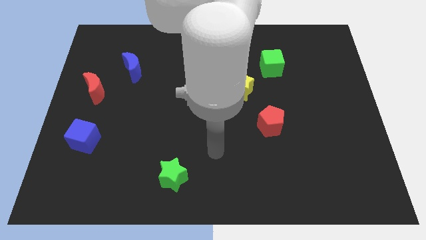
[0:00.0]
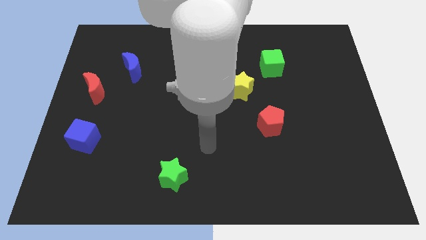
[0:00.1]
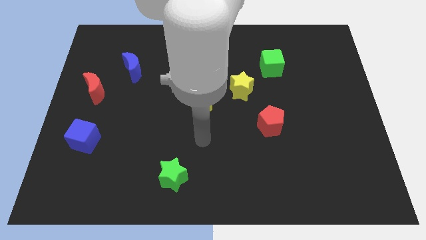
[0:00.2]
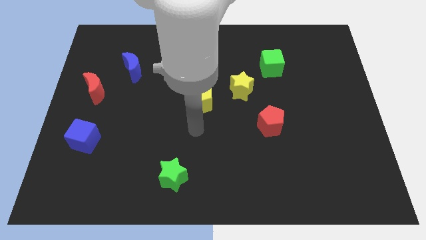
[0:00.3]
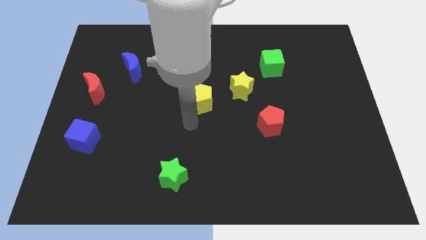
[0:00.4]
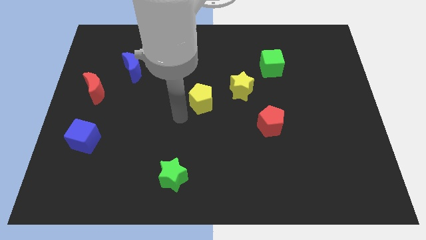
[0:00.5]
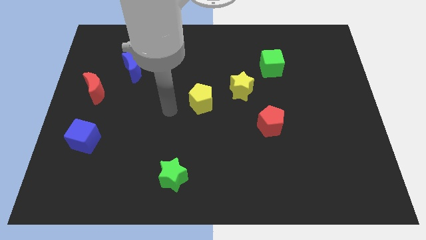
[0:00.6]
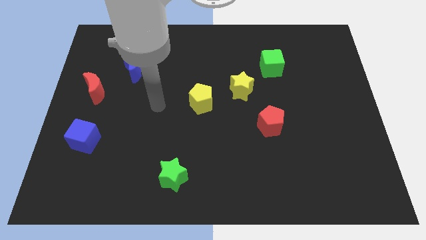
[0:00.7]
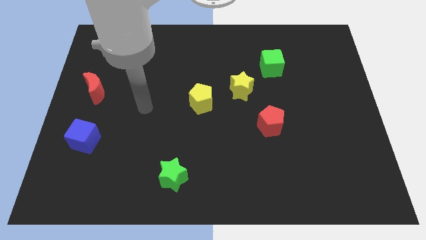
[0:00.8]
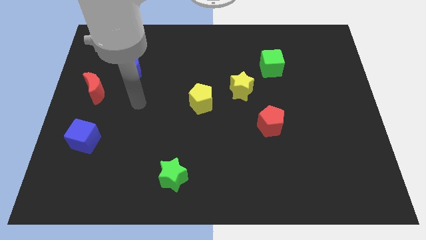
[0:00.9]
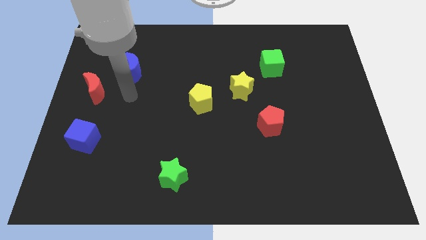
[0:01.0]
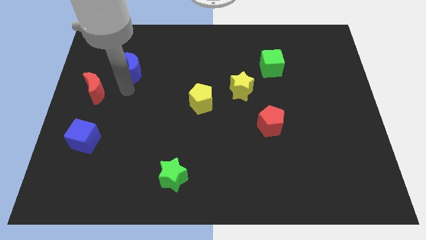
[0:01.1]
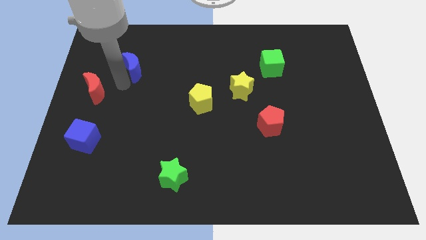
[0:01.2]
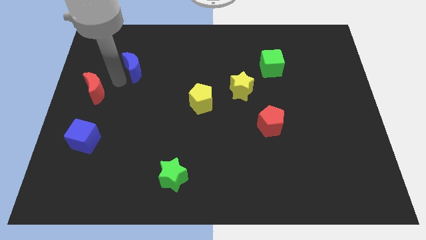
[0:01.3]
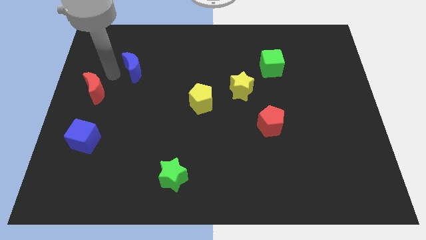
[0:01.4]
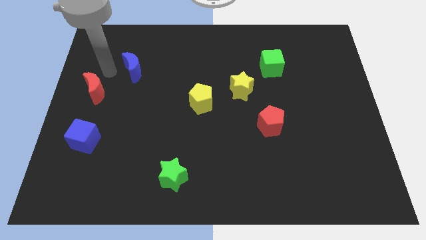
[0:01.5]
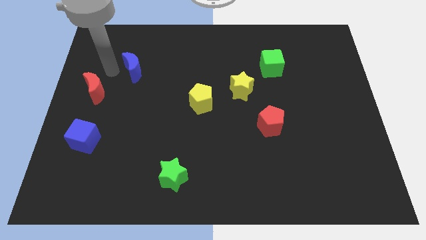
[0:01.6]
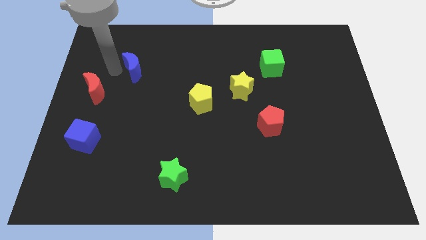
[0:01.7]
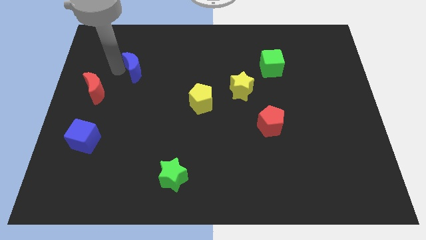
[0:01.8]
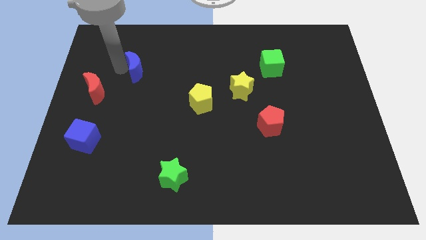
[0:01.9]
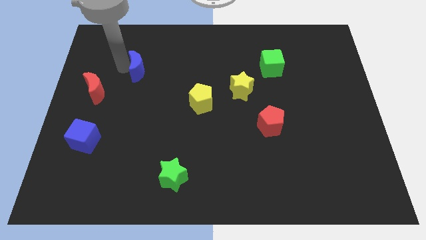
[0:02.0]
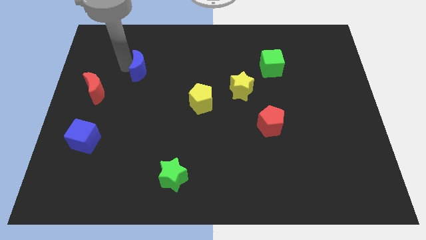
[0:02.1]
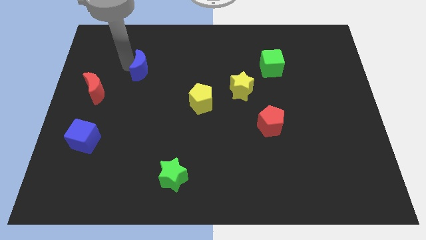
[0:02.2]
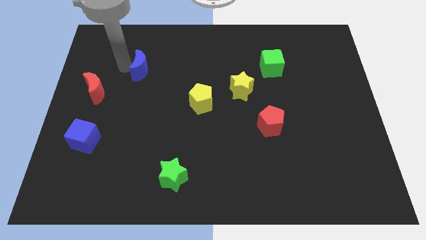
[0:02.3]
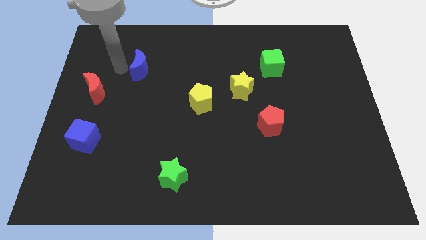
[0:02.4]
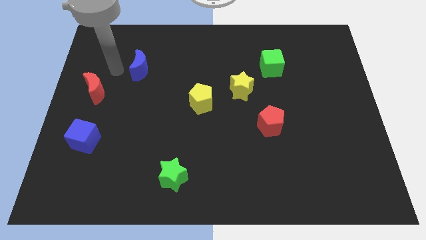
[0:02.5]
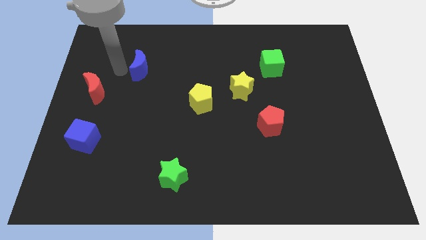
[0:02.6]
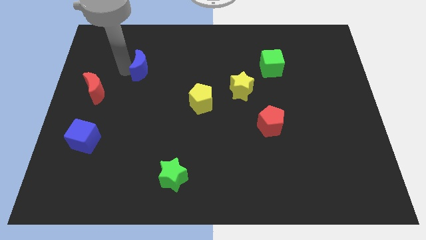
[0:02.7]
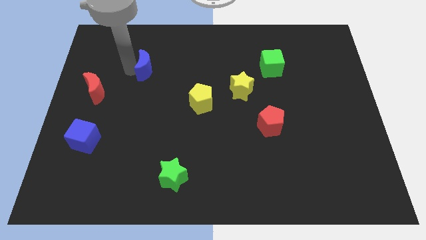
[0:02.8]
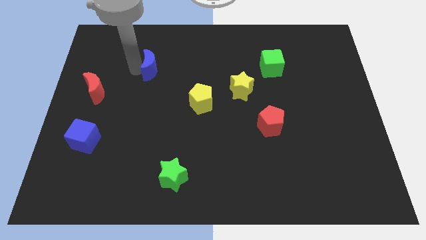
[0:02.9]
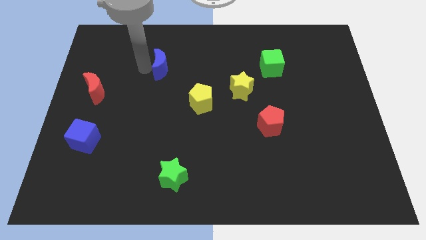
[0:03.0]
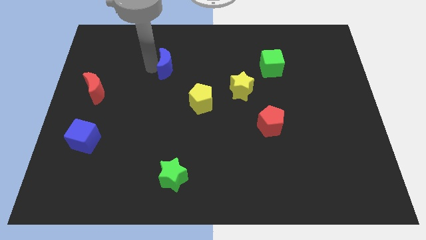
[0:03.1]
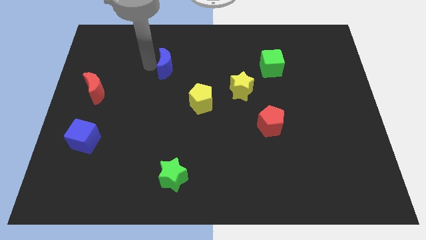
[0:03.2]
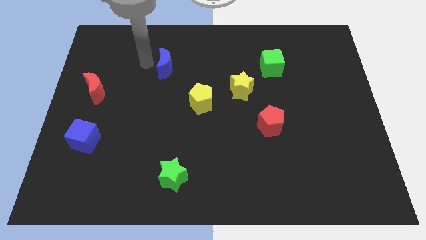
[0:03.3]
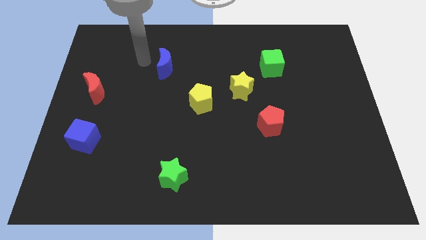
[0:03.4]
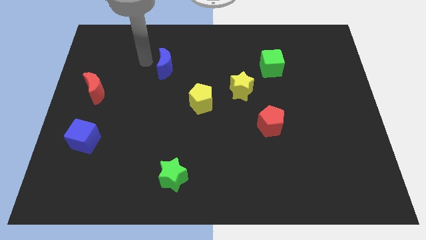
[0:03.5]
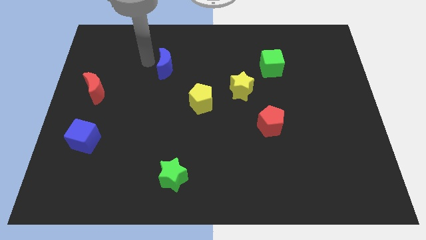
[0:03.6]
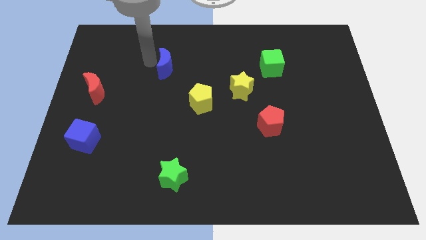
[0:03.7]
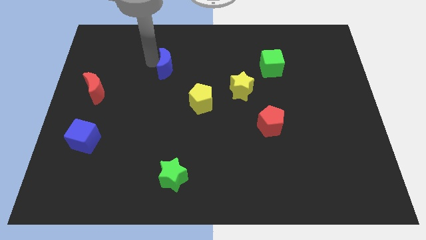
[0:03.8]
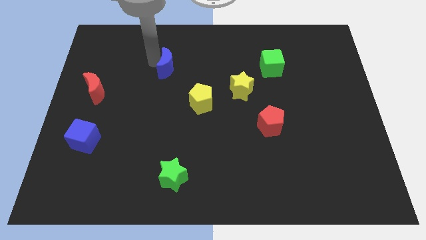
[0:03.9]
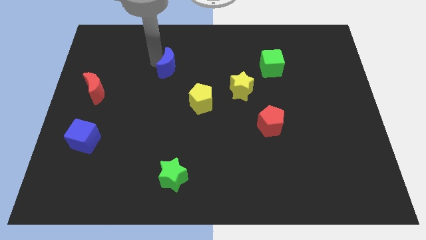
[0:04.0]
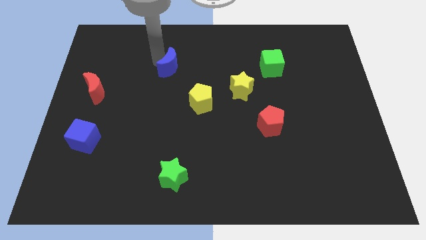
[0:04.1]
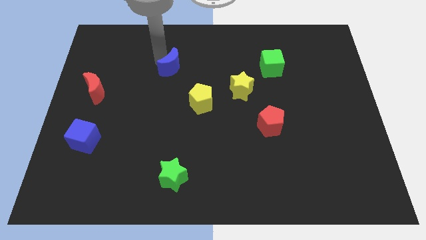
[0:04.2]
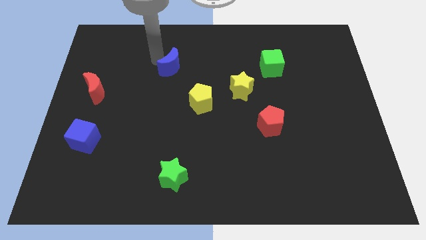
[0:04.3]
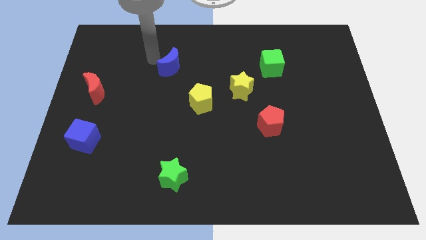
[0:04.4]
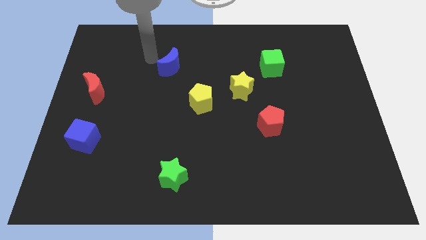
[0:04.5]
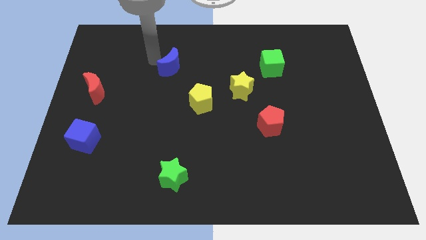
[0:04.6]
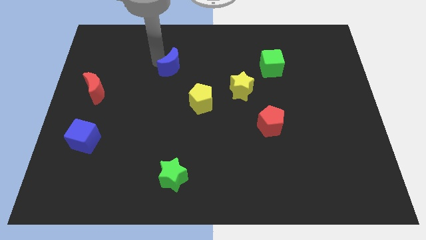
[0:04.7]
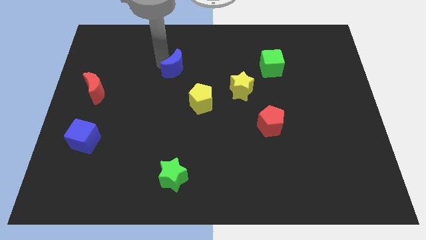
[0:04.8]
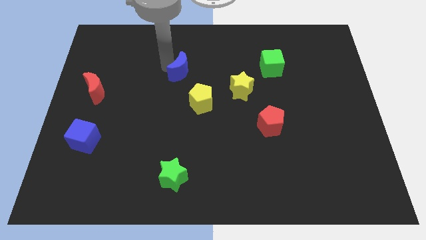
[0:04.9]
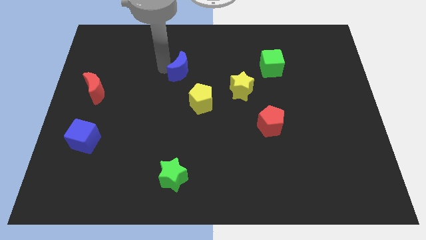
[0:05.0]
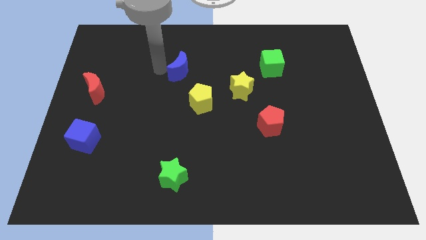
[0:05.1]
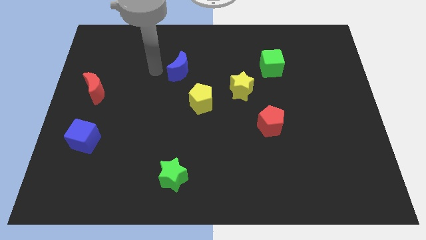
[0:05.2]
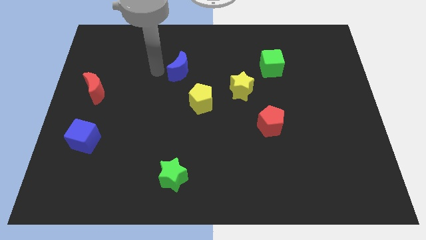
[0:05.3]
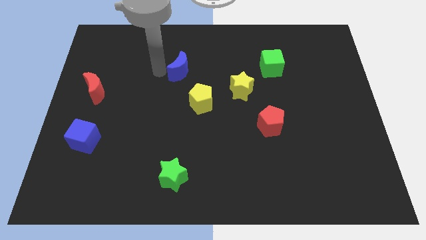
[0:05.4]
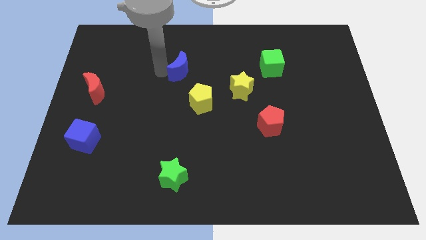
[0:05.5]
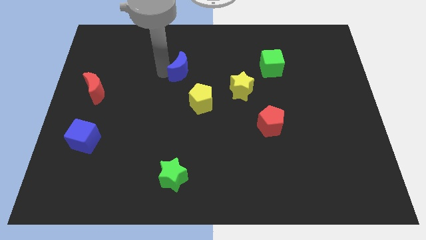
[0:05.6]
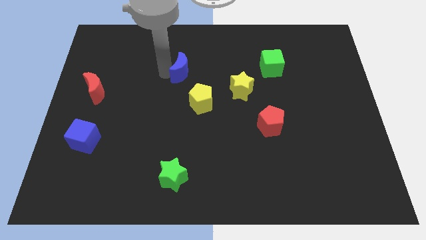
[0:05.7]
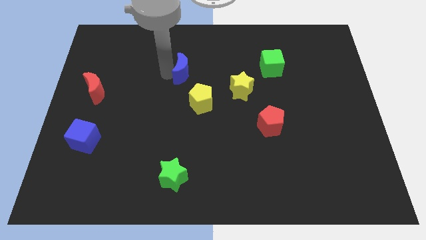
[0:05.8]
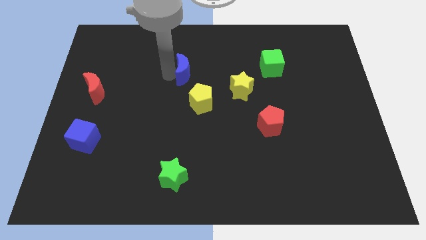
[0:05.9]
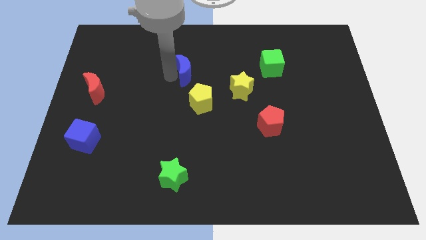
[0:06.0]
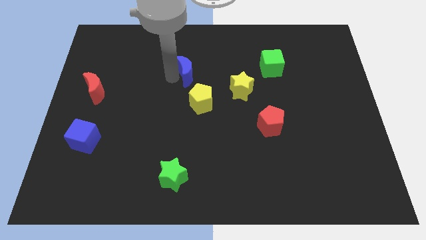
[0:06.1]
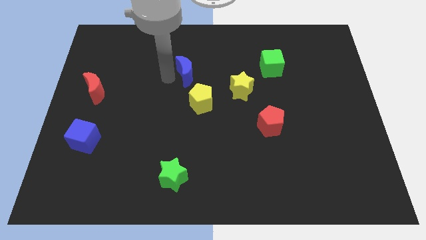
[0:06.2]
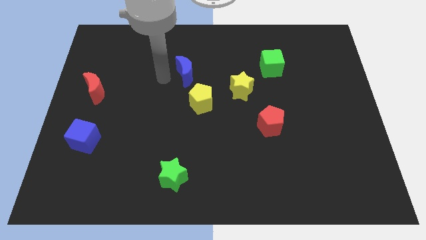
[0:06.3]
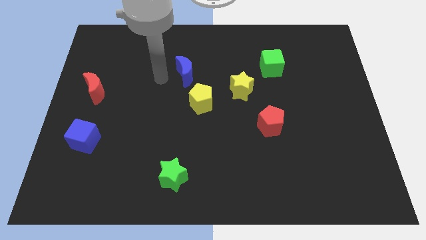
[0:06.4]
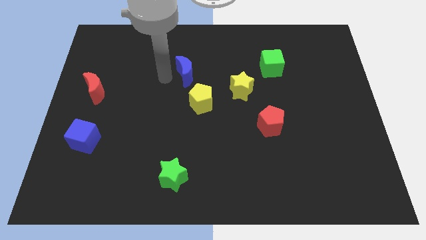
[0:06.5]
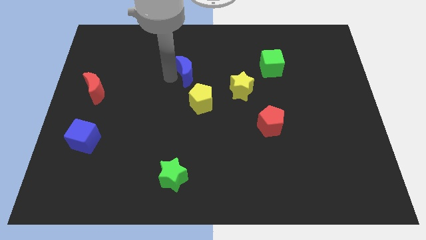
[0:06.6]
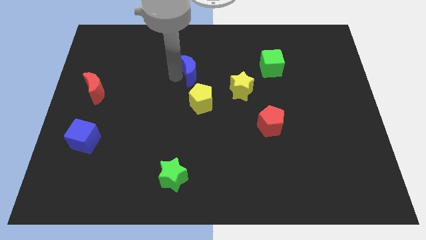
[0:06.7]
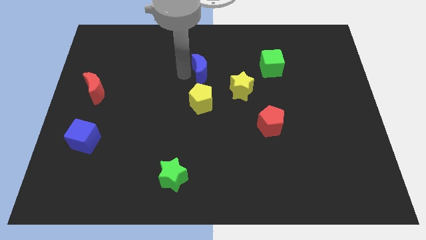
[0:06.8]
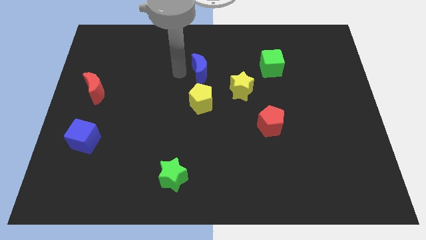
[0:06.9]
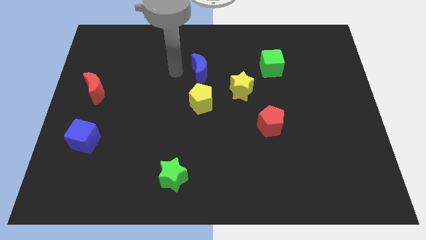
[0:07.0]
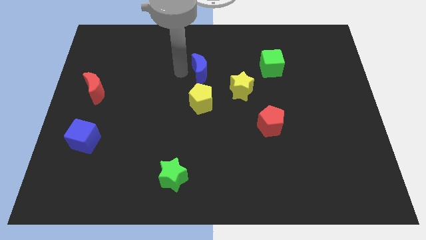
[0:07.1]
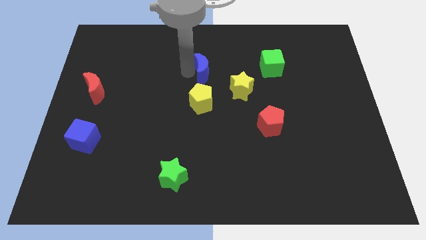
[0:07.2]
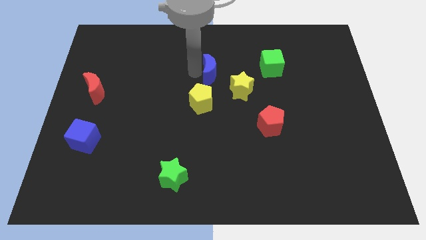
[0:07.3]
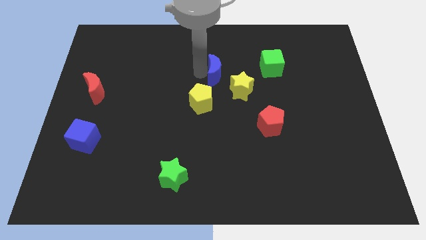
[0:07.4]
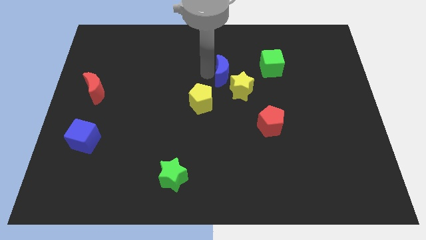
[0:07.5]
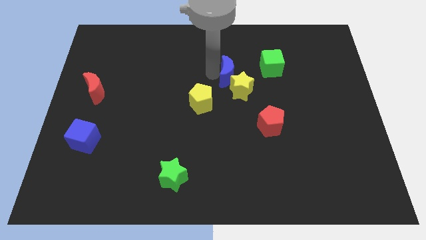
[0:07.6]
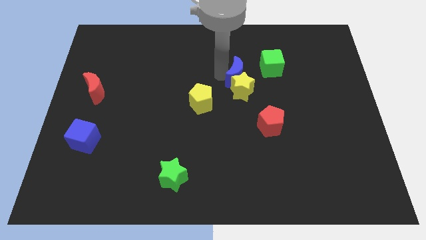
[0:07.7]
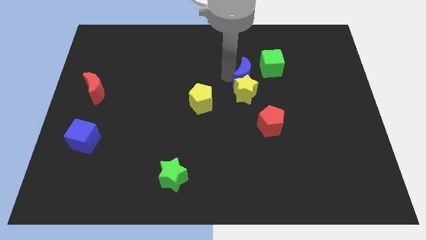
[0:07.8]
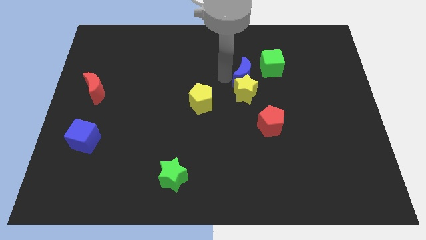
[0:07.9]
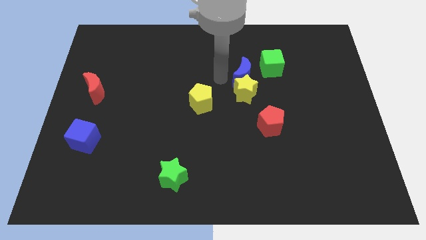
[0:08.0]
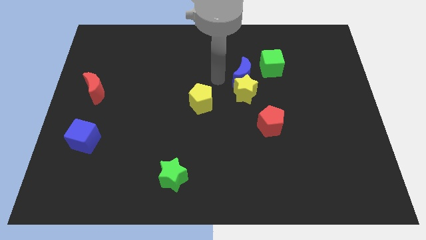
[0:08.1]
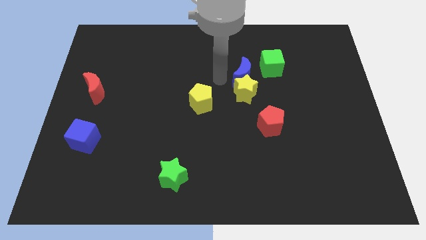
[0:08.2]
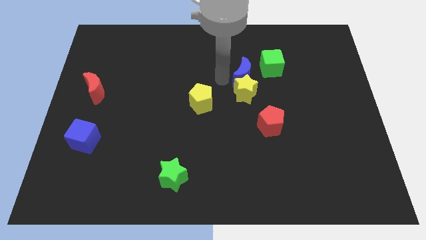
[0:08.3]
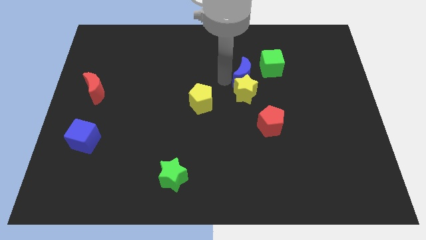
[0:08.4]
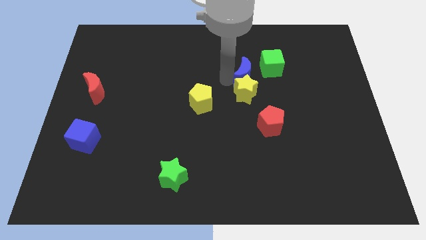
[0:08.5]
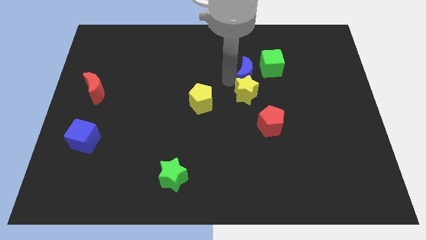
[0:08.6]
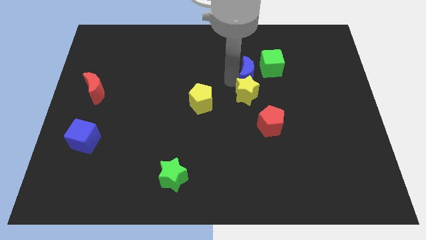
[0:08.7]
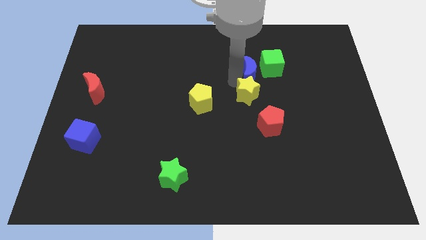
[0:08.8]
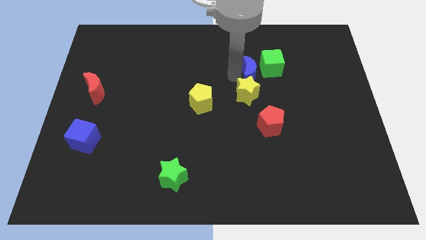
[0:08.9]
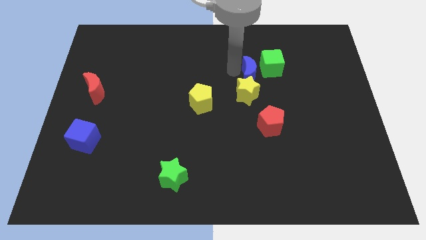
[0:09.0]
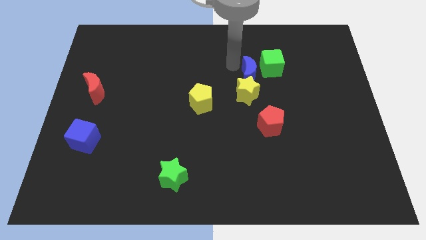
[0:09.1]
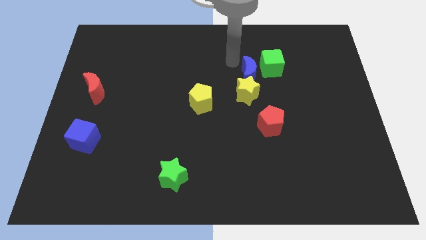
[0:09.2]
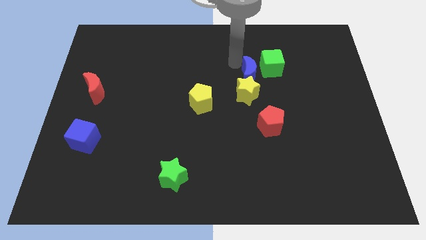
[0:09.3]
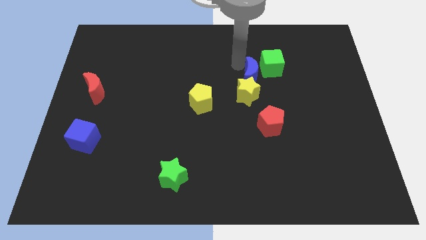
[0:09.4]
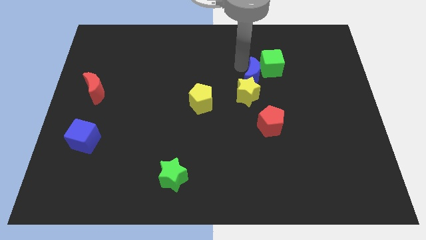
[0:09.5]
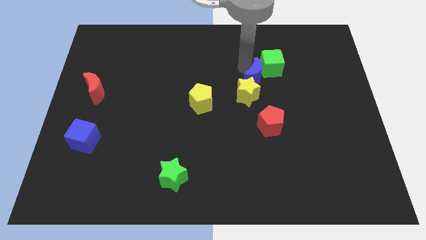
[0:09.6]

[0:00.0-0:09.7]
move the blue moon to the bottom of the green cube
